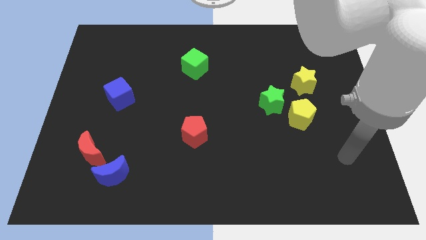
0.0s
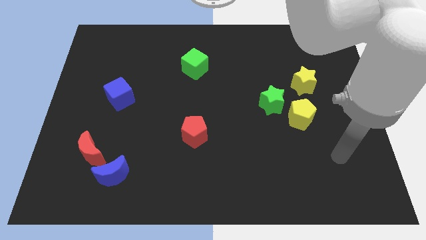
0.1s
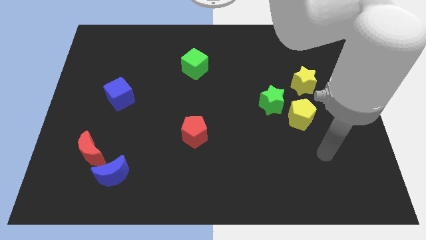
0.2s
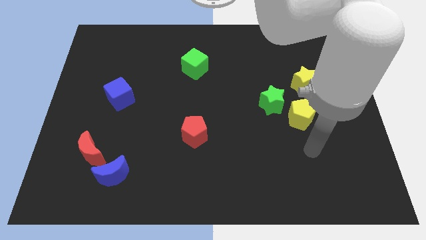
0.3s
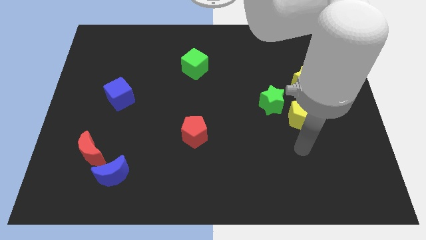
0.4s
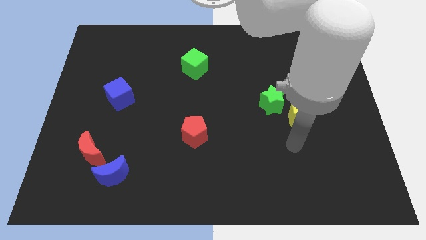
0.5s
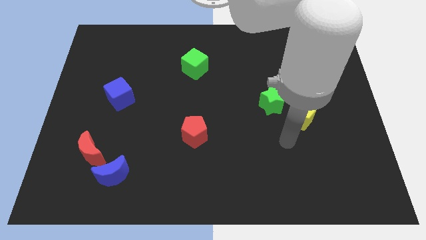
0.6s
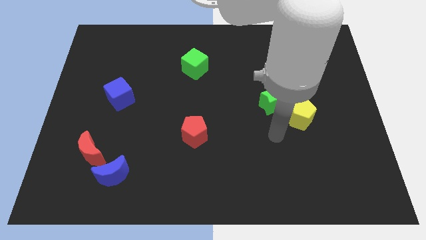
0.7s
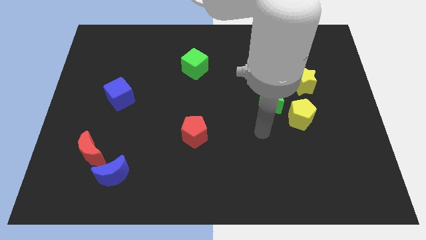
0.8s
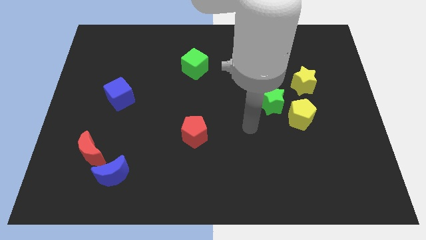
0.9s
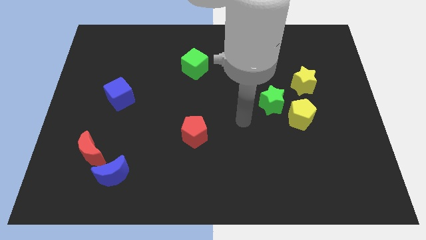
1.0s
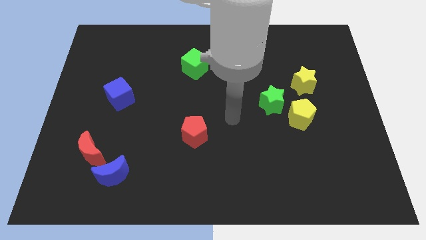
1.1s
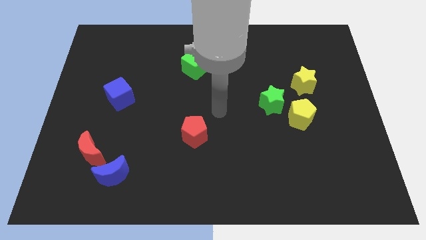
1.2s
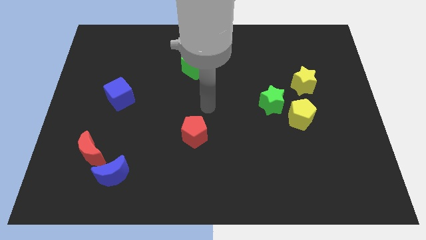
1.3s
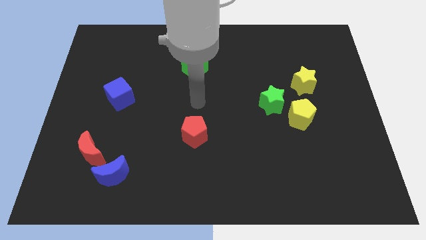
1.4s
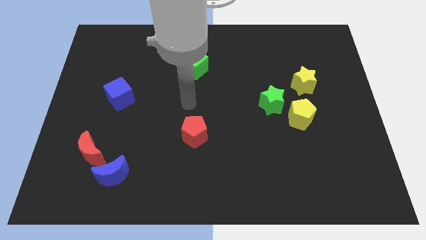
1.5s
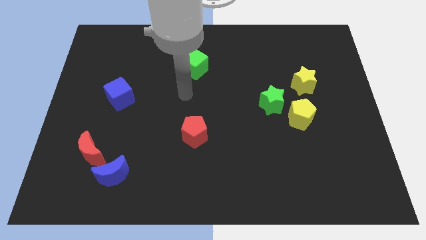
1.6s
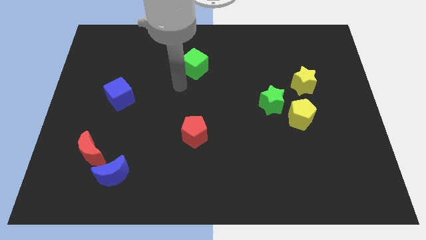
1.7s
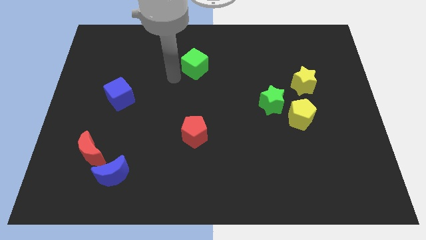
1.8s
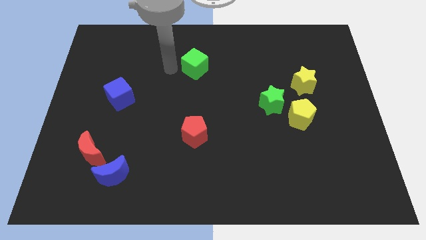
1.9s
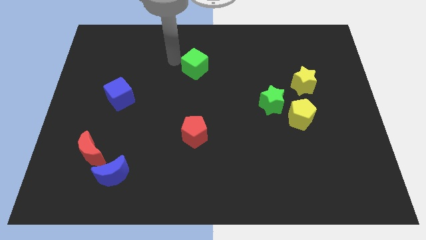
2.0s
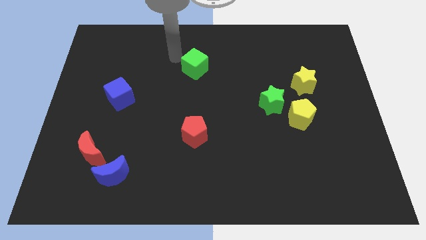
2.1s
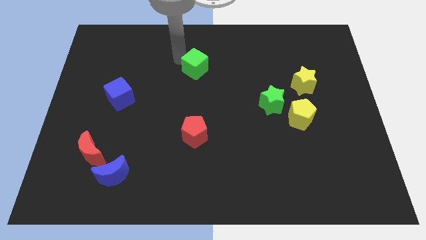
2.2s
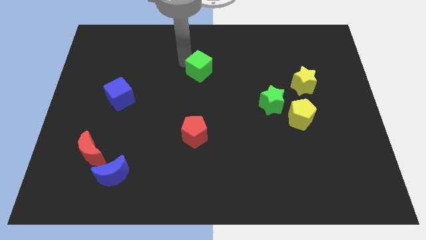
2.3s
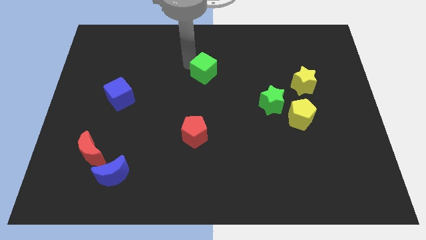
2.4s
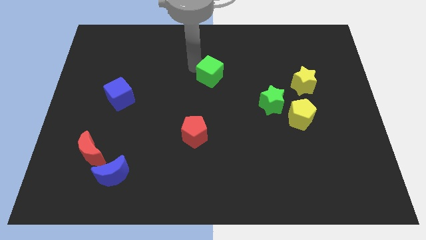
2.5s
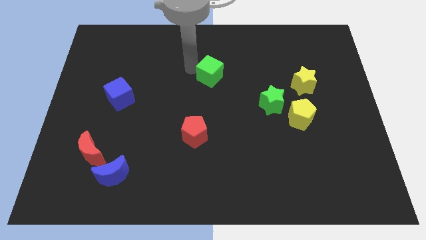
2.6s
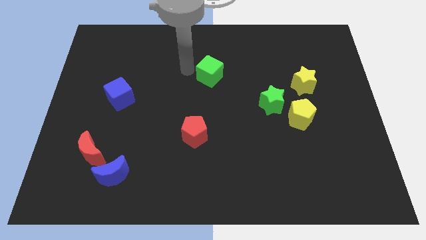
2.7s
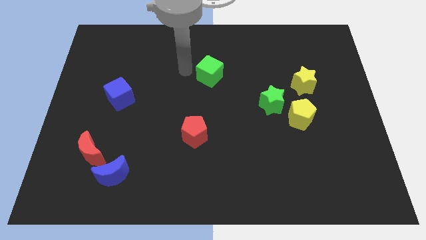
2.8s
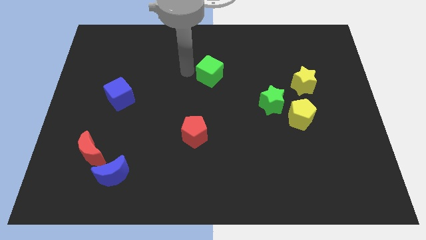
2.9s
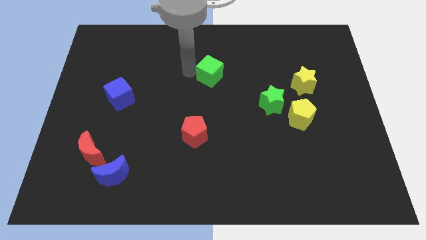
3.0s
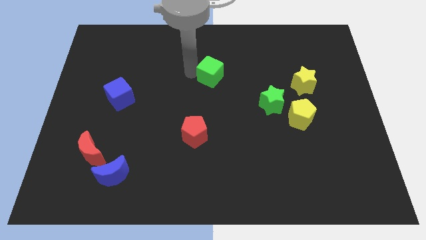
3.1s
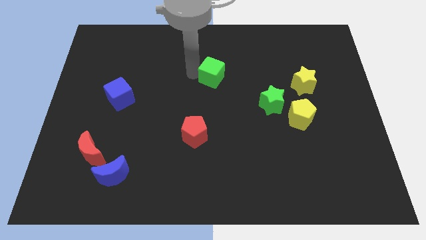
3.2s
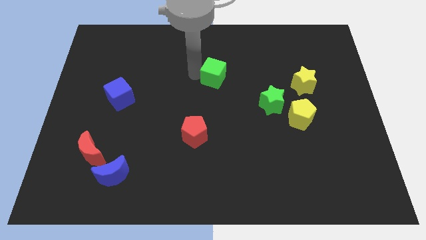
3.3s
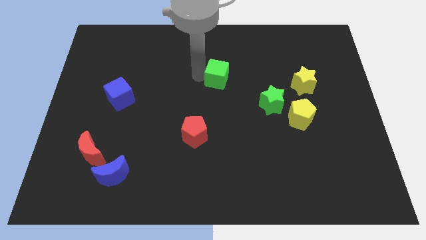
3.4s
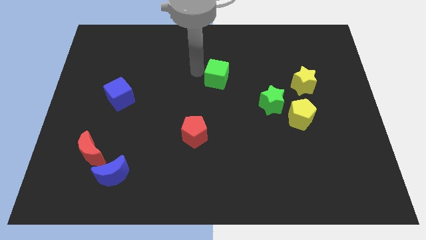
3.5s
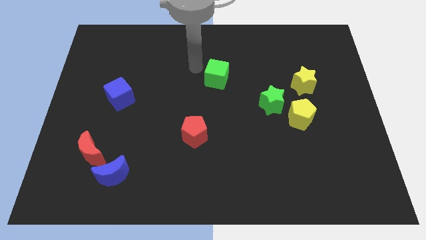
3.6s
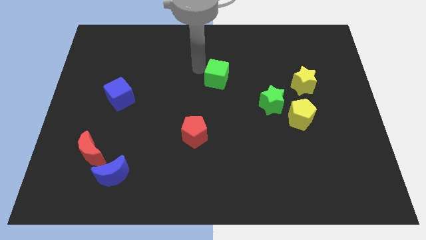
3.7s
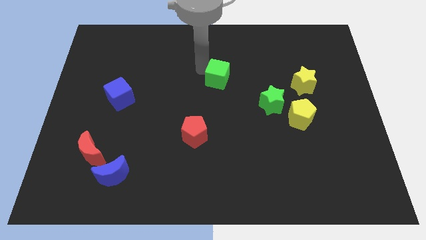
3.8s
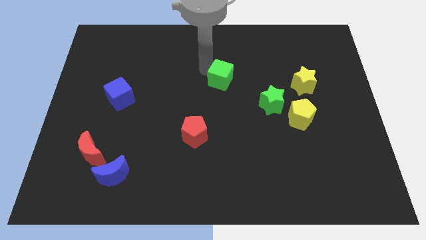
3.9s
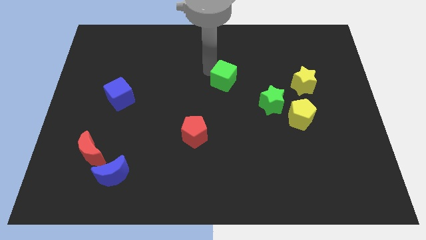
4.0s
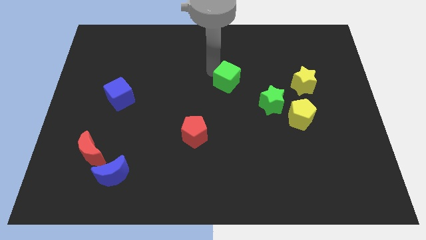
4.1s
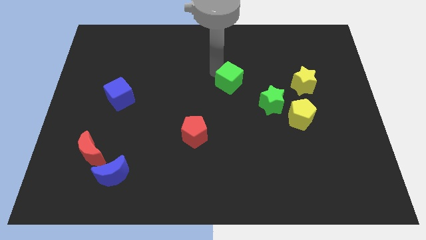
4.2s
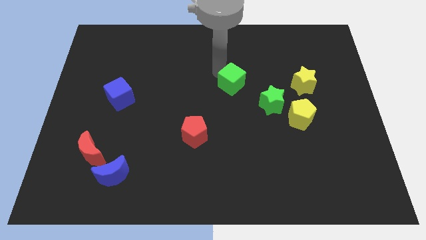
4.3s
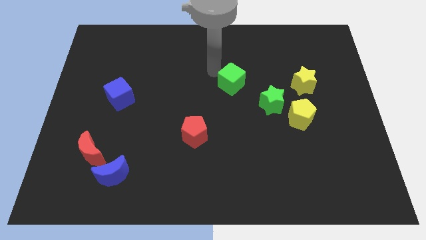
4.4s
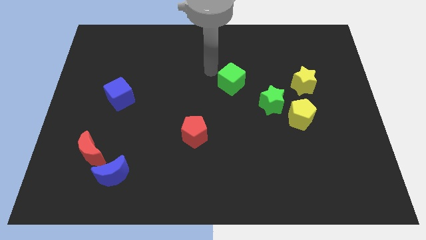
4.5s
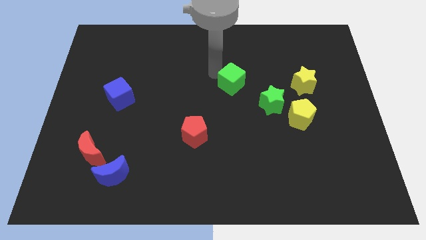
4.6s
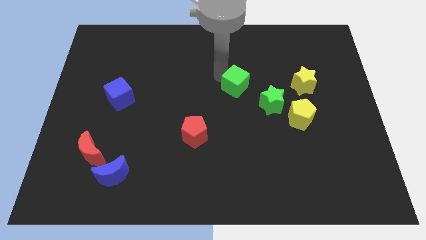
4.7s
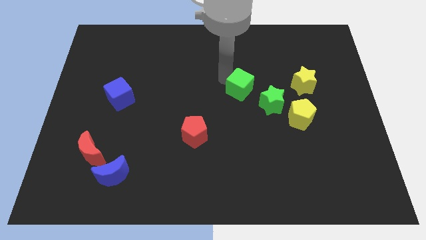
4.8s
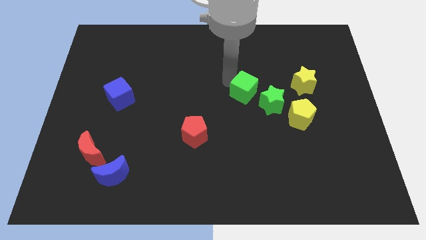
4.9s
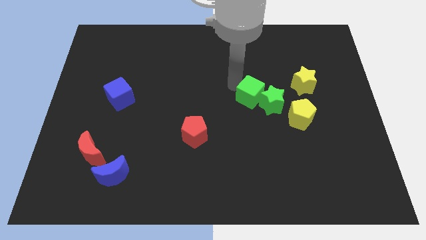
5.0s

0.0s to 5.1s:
push the green cube to the green star

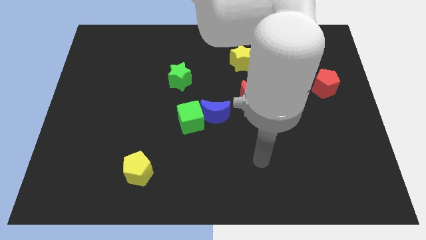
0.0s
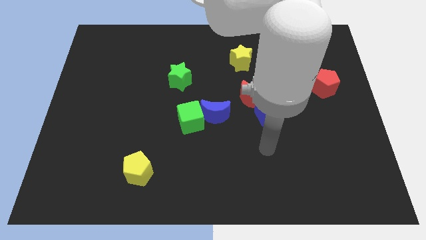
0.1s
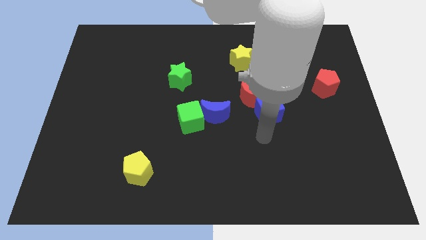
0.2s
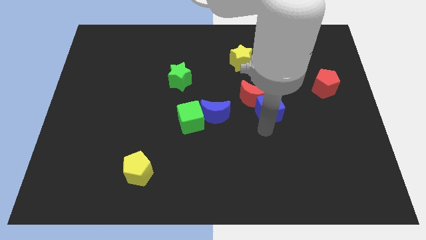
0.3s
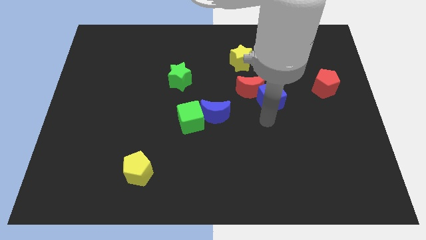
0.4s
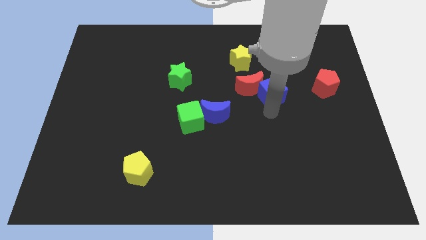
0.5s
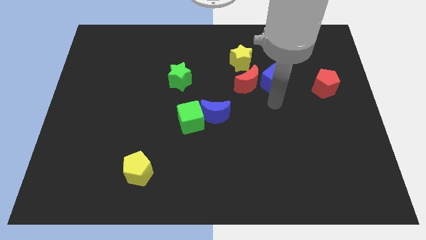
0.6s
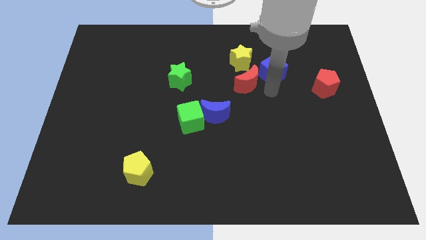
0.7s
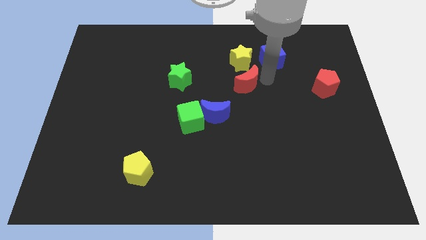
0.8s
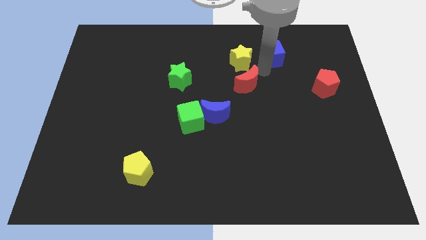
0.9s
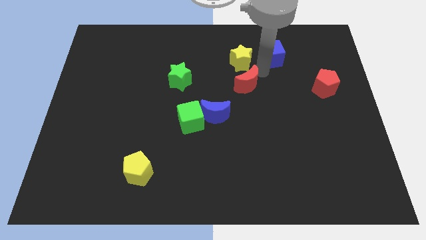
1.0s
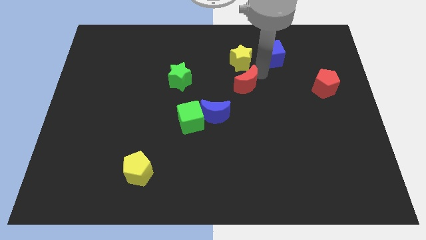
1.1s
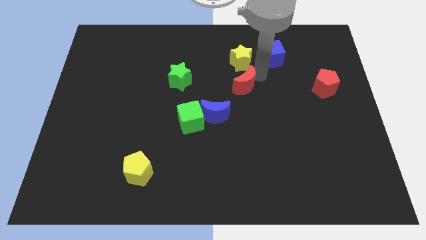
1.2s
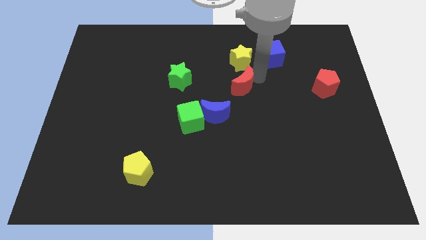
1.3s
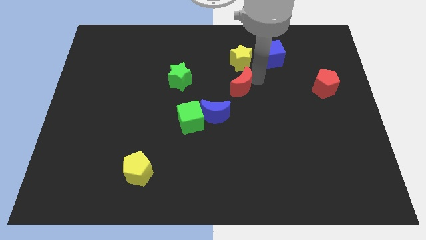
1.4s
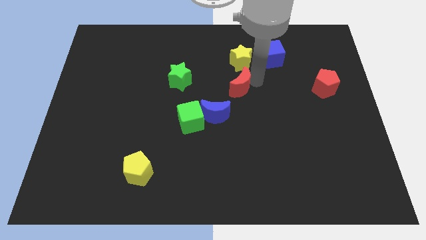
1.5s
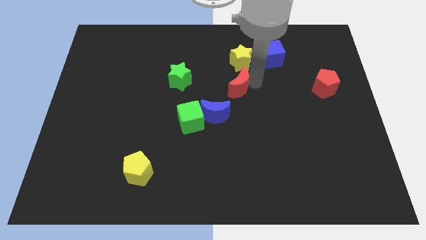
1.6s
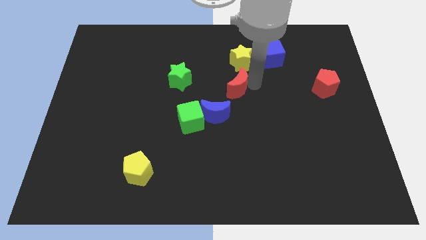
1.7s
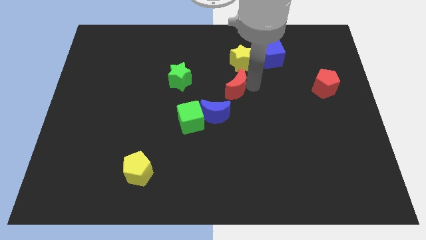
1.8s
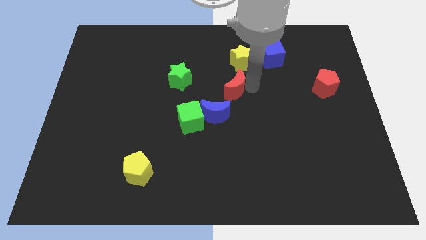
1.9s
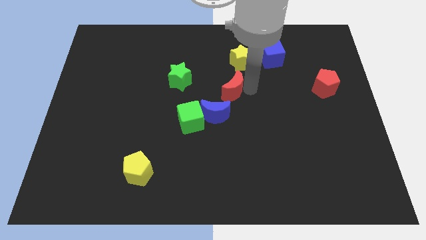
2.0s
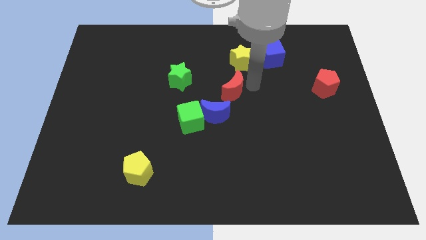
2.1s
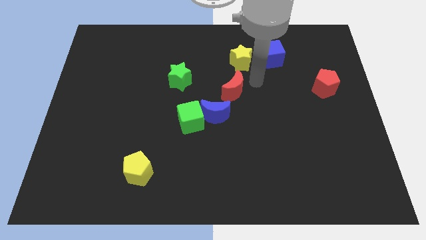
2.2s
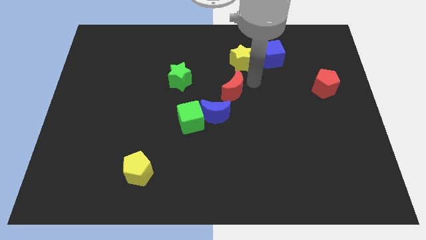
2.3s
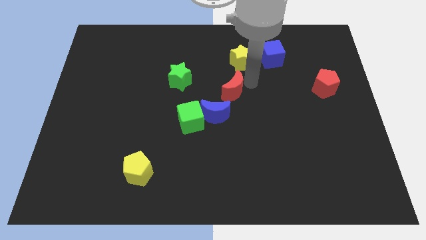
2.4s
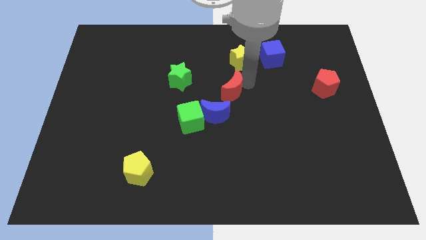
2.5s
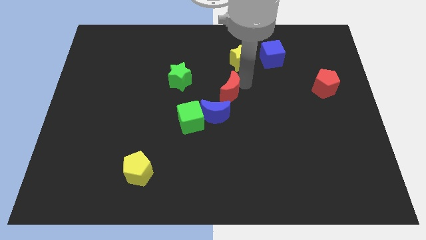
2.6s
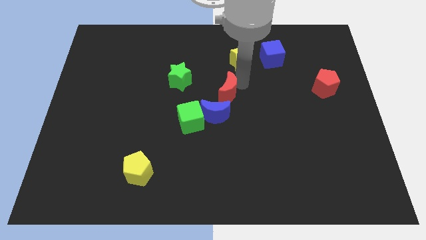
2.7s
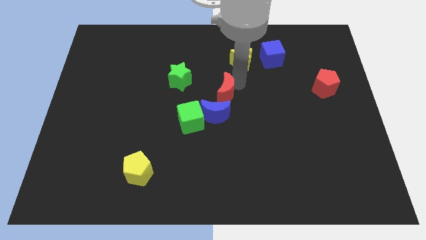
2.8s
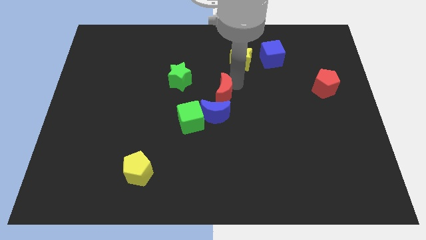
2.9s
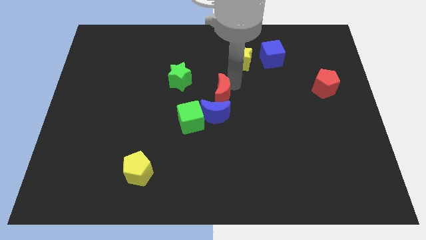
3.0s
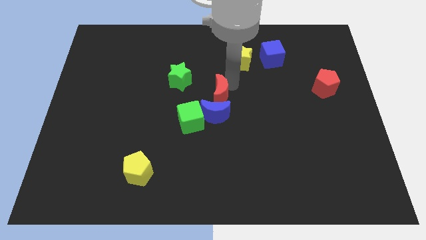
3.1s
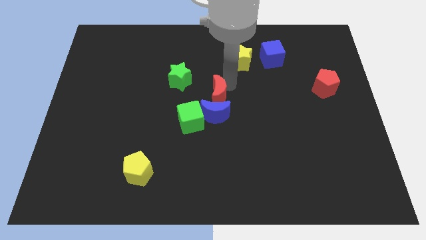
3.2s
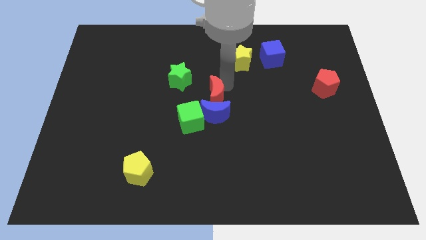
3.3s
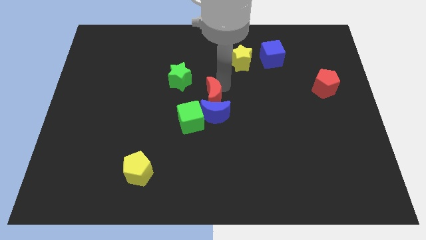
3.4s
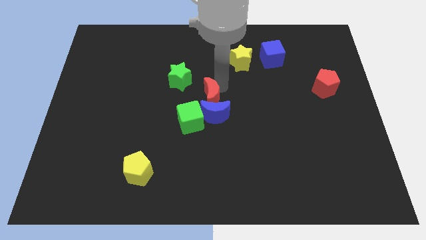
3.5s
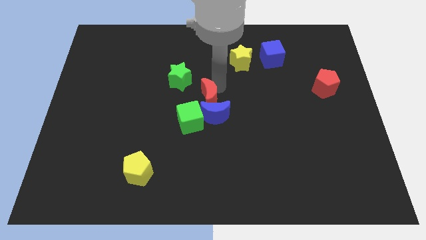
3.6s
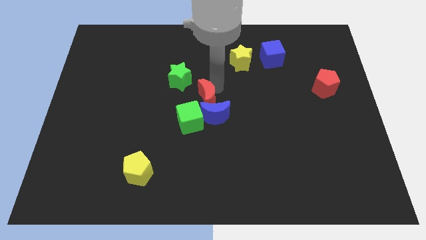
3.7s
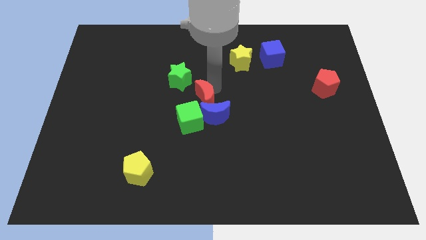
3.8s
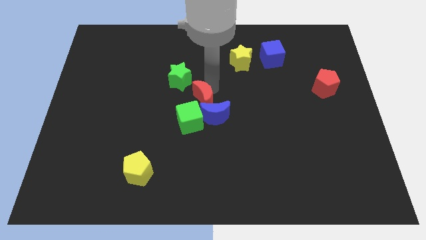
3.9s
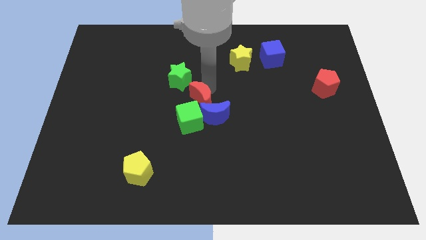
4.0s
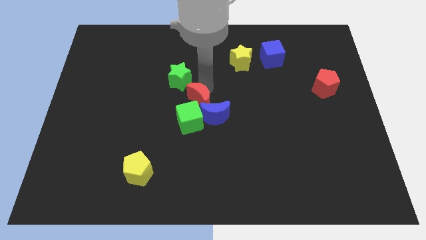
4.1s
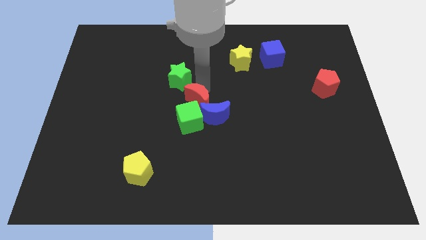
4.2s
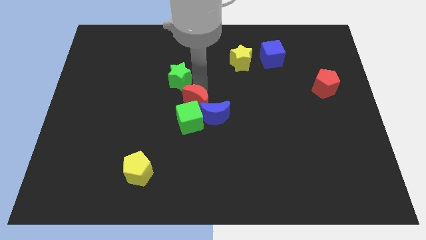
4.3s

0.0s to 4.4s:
slide the red moon next to the green cube
